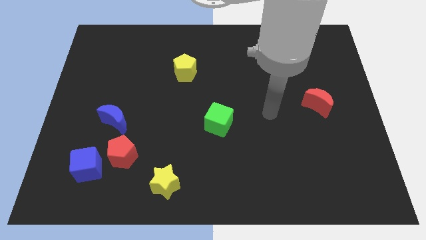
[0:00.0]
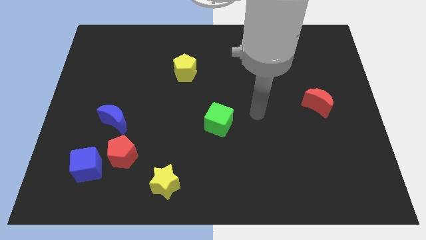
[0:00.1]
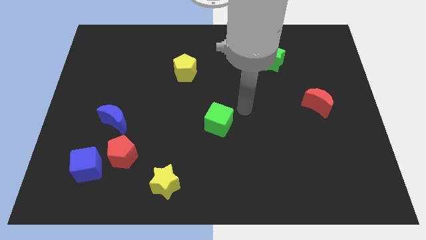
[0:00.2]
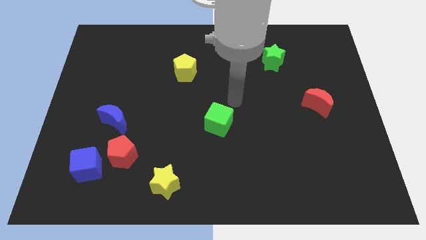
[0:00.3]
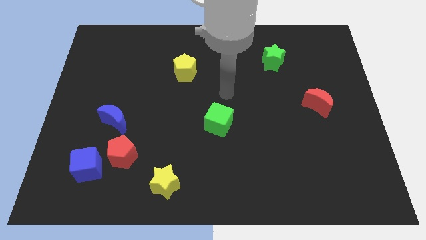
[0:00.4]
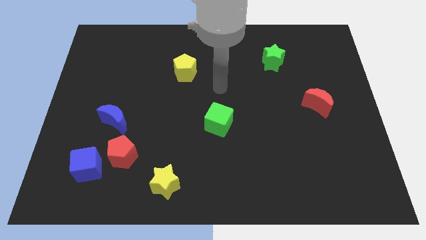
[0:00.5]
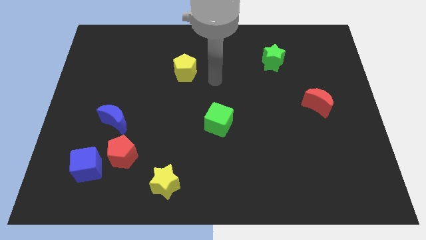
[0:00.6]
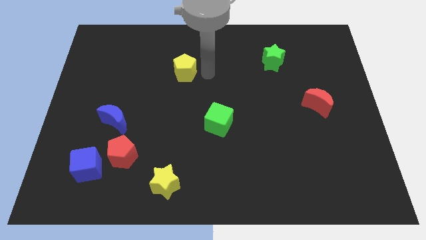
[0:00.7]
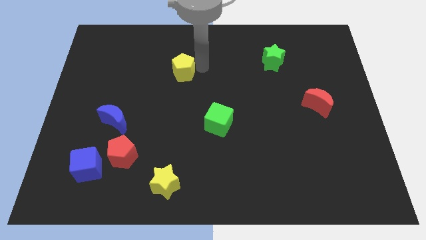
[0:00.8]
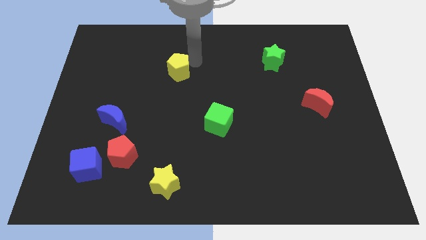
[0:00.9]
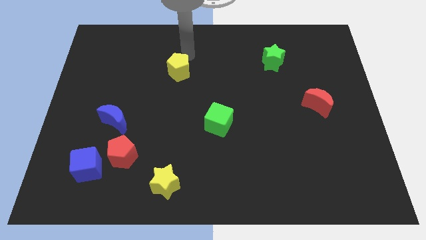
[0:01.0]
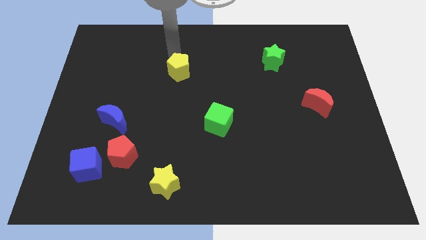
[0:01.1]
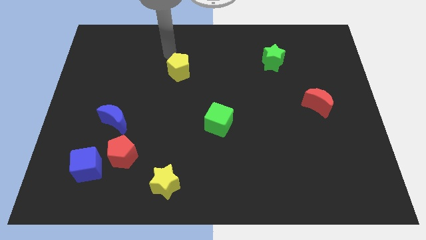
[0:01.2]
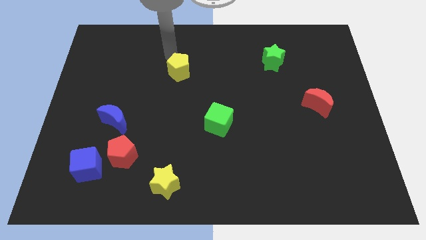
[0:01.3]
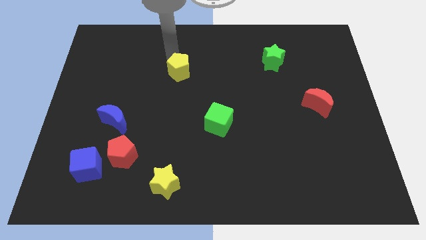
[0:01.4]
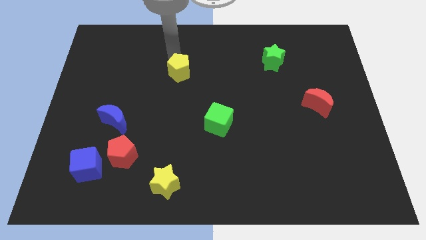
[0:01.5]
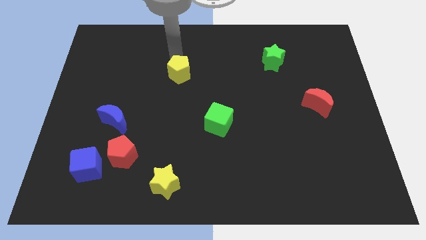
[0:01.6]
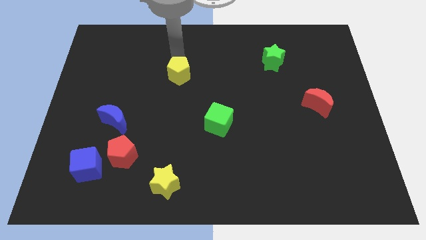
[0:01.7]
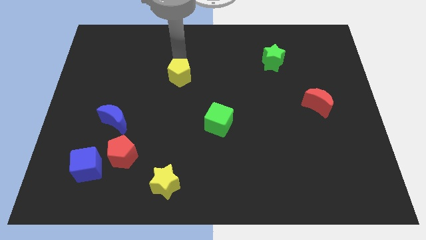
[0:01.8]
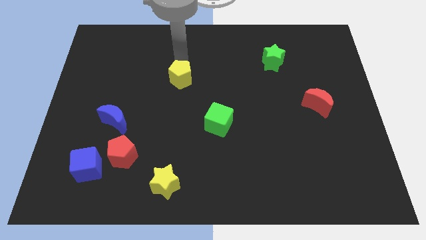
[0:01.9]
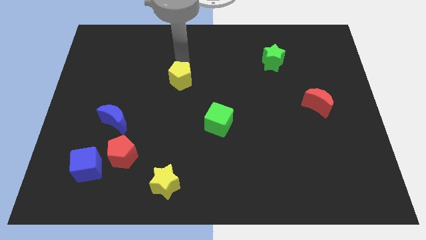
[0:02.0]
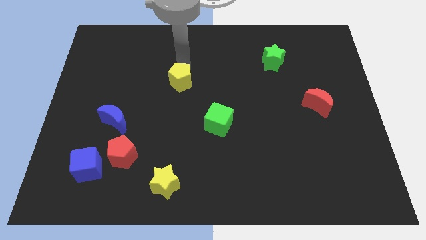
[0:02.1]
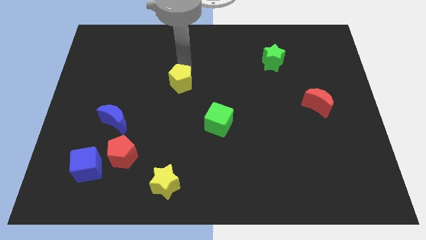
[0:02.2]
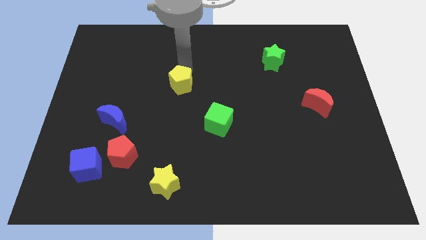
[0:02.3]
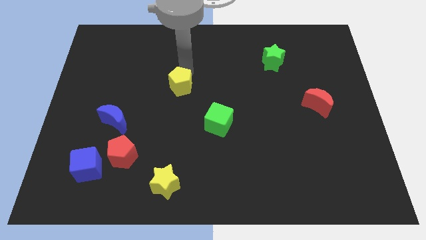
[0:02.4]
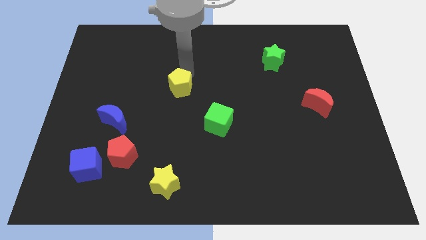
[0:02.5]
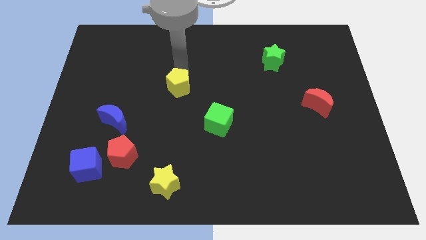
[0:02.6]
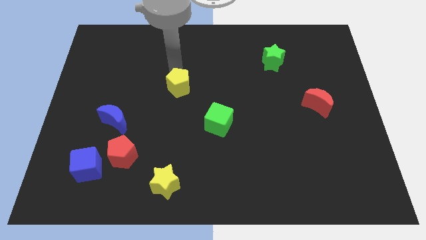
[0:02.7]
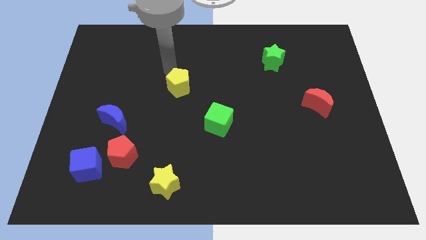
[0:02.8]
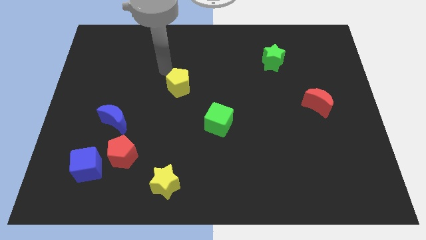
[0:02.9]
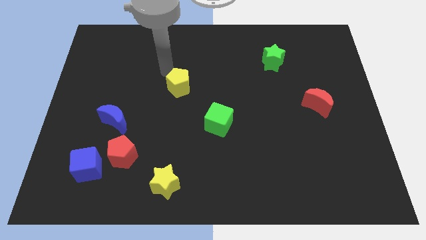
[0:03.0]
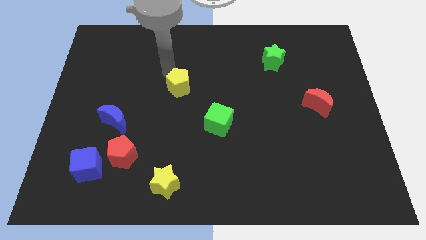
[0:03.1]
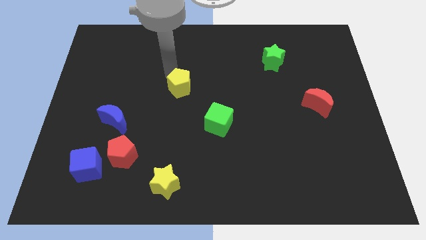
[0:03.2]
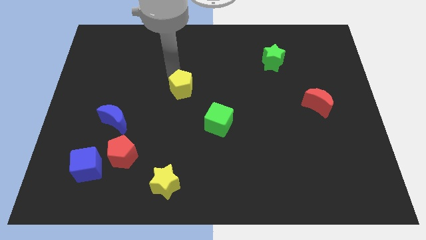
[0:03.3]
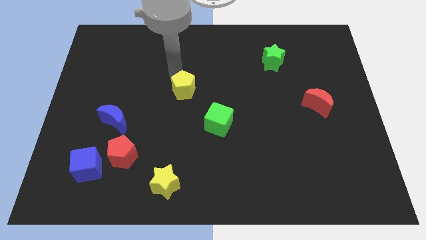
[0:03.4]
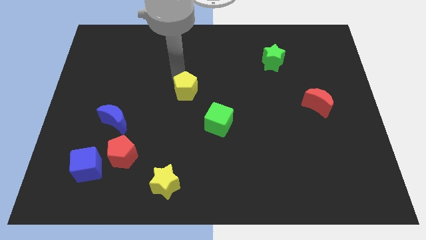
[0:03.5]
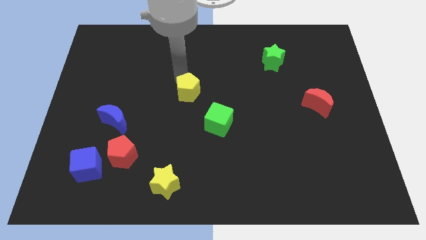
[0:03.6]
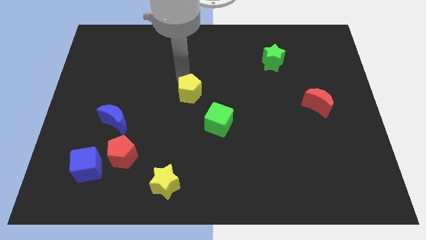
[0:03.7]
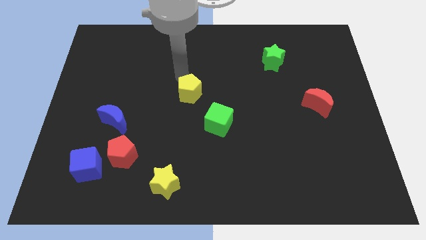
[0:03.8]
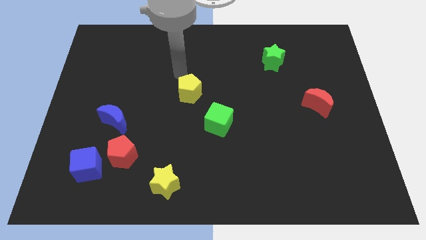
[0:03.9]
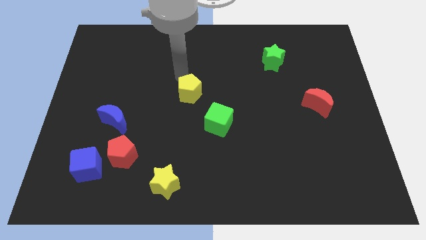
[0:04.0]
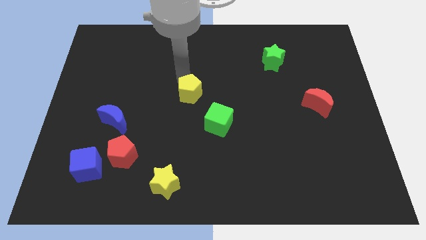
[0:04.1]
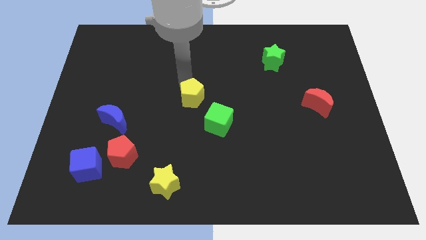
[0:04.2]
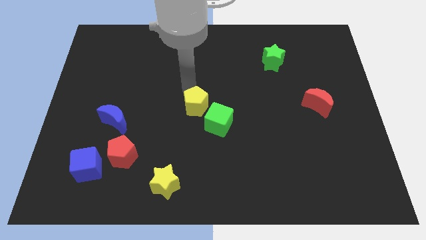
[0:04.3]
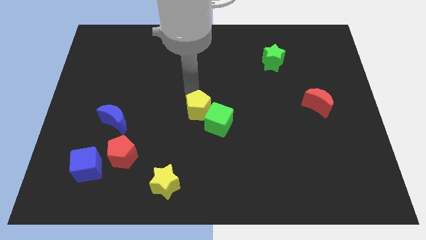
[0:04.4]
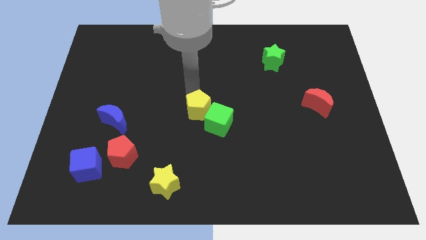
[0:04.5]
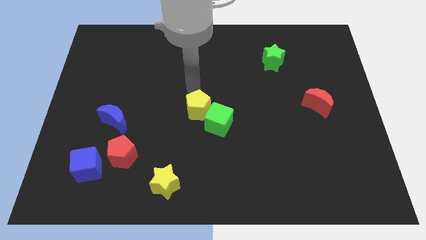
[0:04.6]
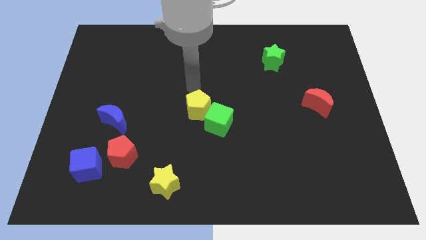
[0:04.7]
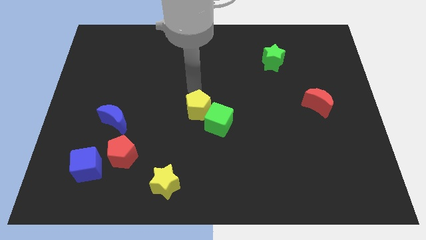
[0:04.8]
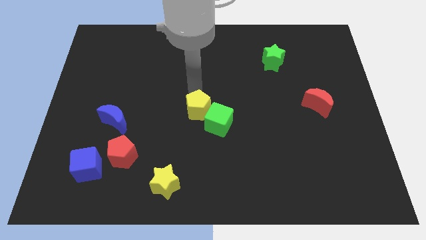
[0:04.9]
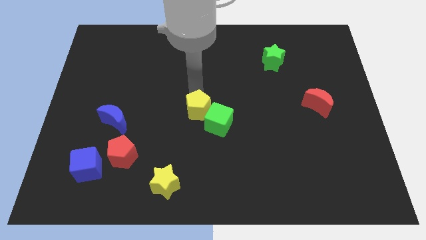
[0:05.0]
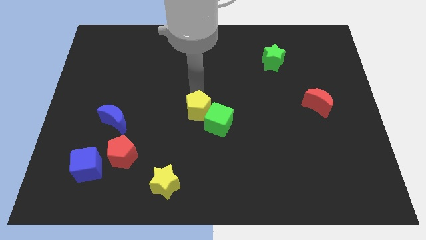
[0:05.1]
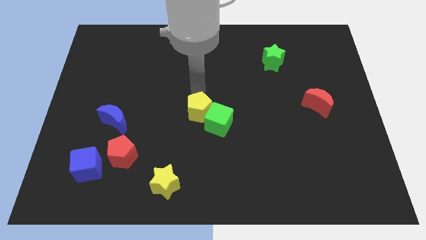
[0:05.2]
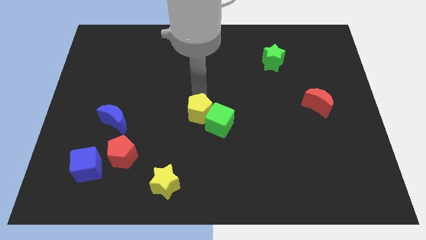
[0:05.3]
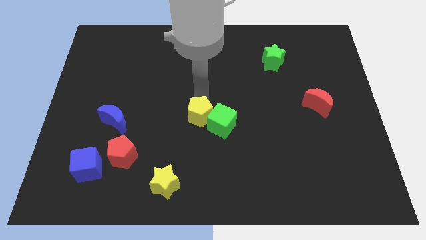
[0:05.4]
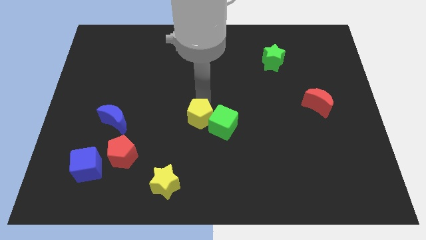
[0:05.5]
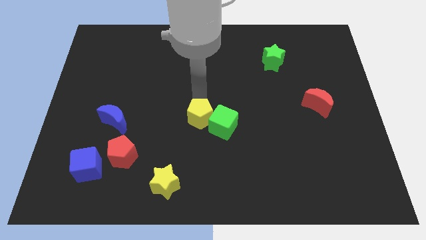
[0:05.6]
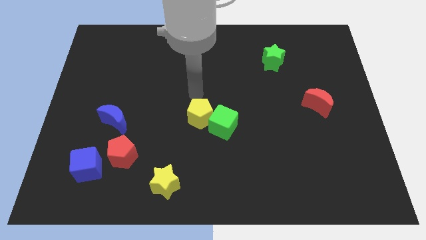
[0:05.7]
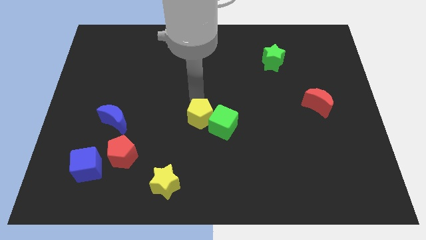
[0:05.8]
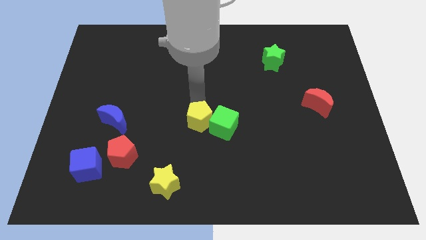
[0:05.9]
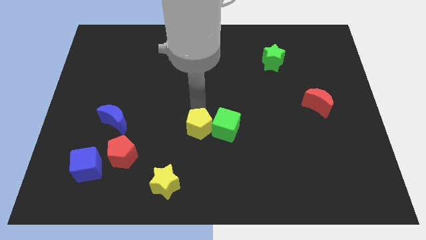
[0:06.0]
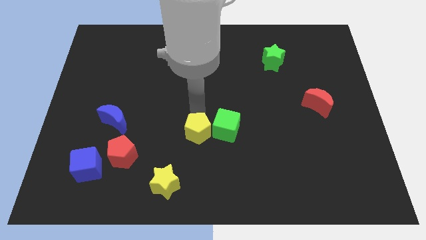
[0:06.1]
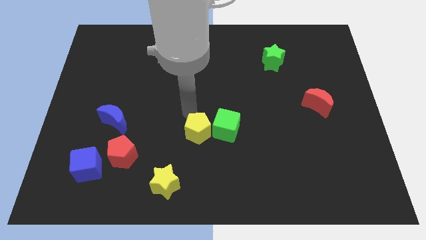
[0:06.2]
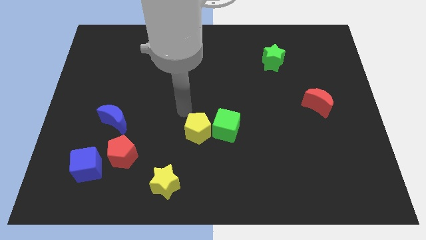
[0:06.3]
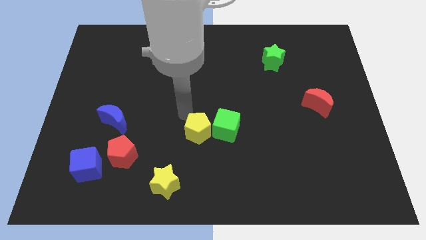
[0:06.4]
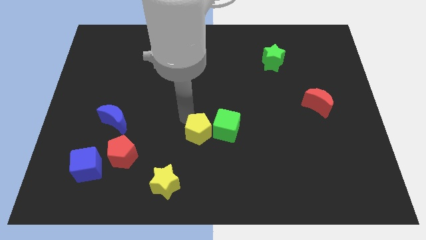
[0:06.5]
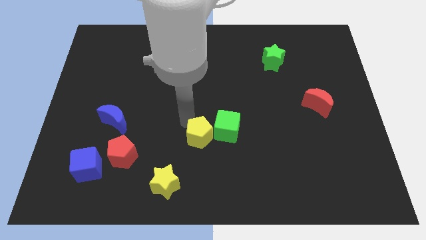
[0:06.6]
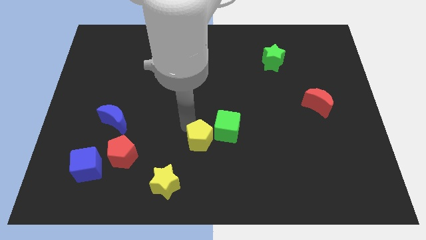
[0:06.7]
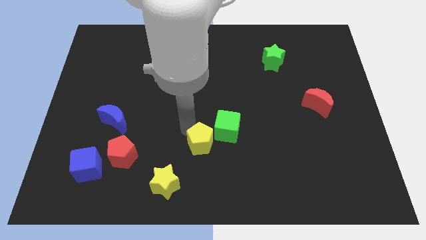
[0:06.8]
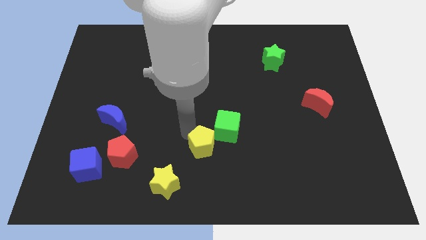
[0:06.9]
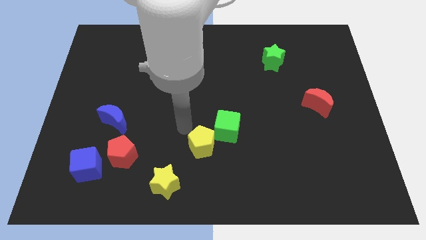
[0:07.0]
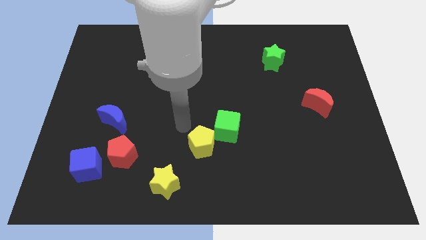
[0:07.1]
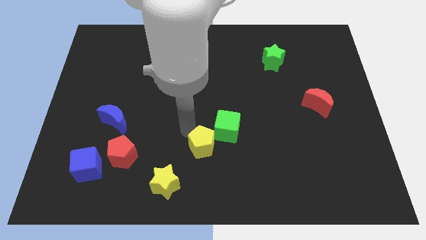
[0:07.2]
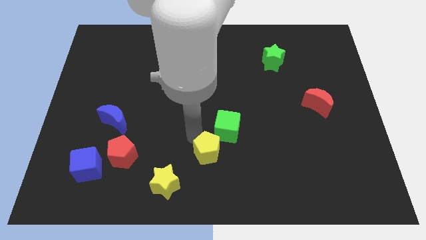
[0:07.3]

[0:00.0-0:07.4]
slide the yellow pentagon to the bottom side of the green cube
